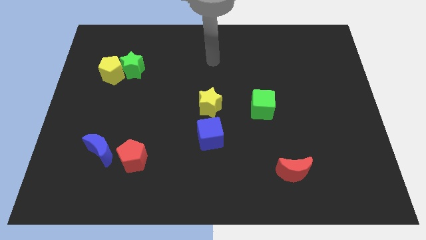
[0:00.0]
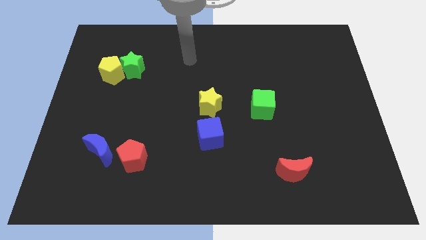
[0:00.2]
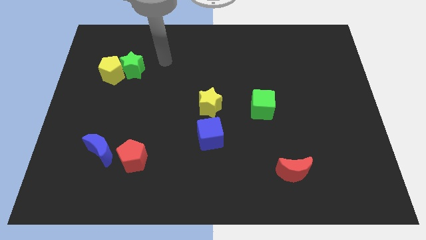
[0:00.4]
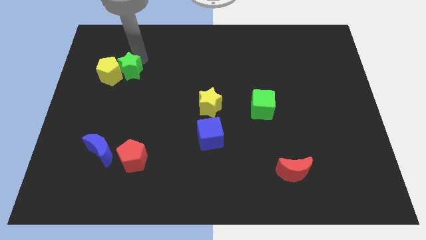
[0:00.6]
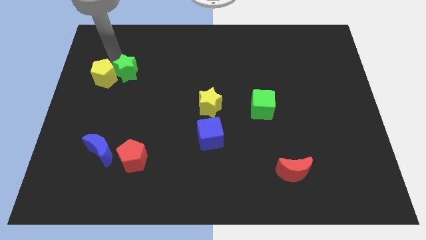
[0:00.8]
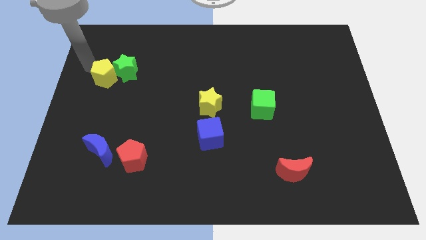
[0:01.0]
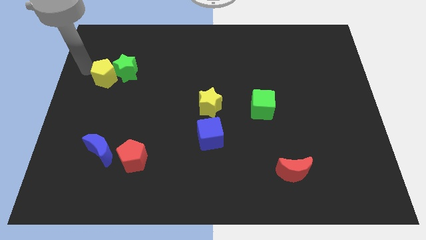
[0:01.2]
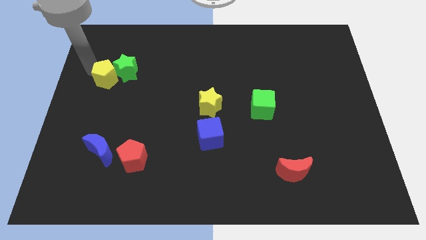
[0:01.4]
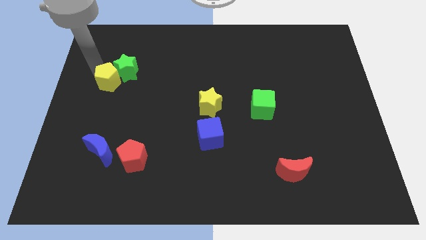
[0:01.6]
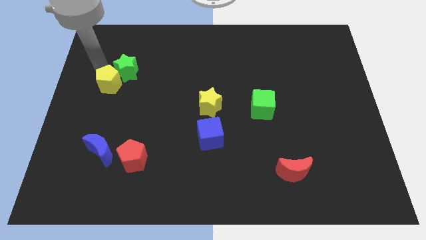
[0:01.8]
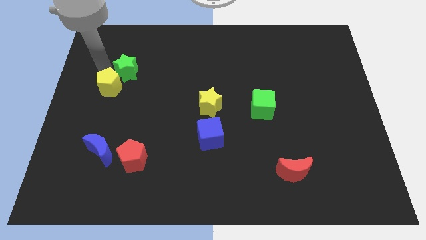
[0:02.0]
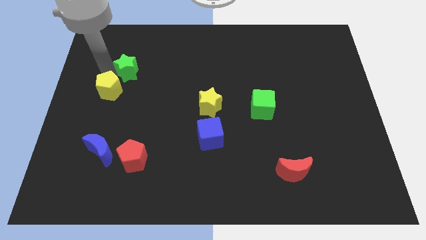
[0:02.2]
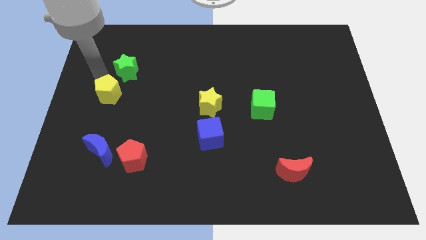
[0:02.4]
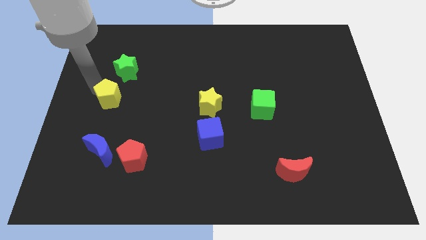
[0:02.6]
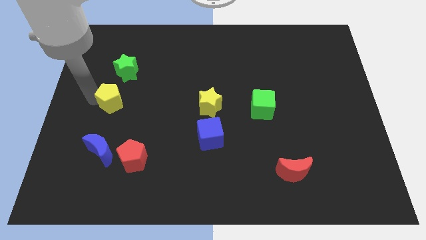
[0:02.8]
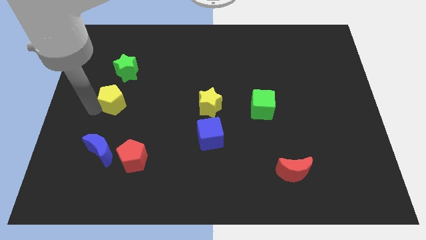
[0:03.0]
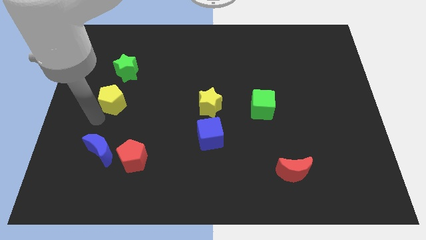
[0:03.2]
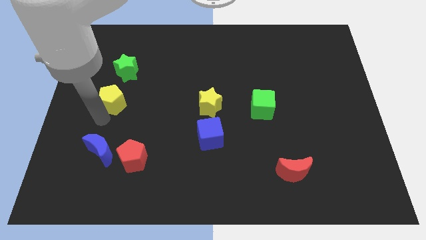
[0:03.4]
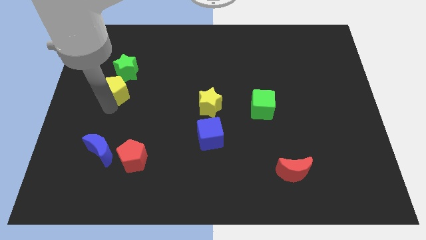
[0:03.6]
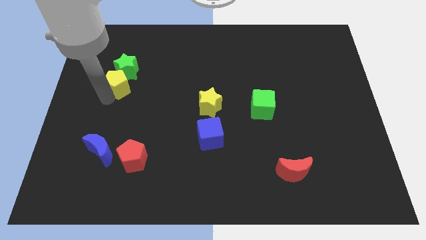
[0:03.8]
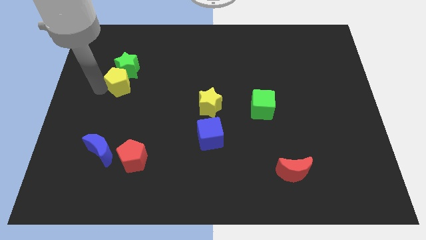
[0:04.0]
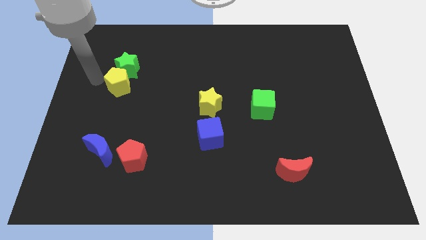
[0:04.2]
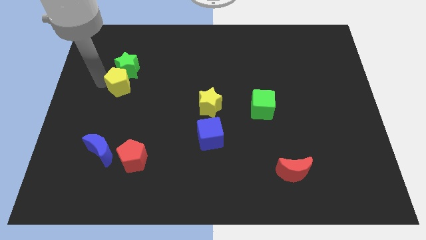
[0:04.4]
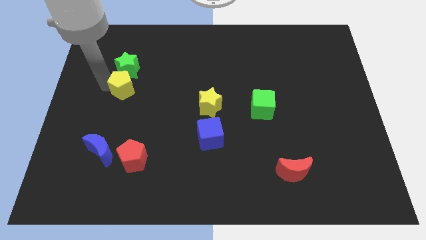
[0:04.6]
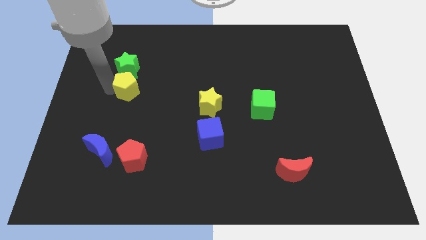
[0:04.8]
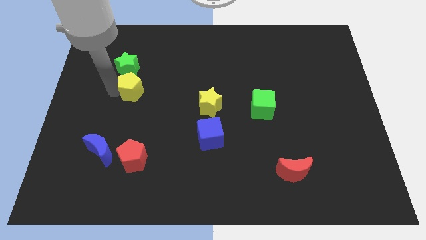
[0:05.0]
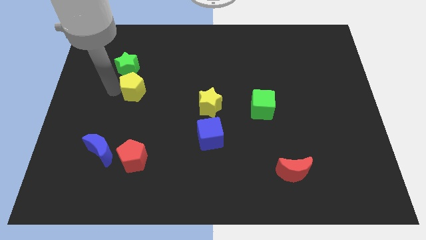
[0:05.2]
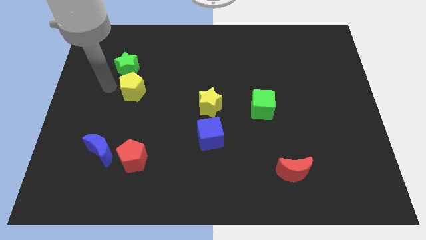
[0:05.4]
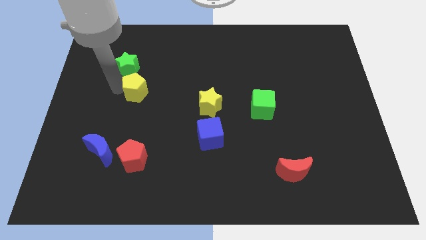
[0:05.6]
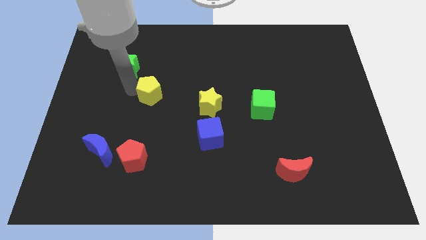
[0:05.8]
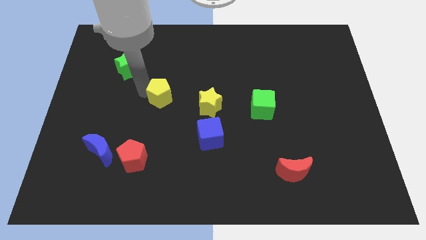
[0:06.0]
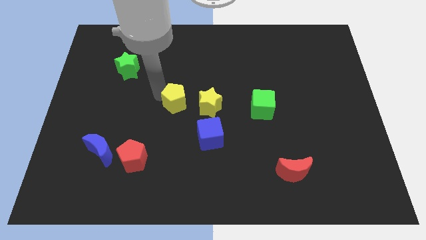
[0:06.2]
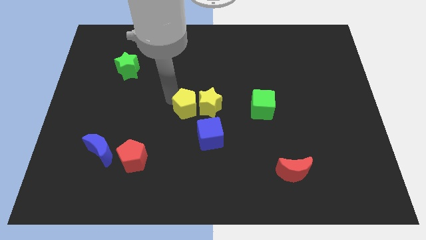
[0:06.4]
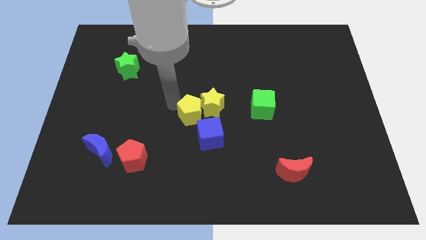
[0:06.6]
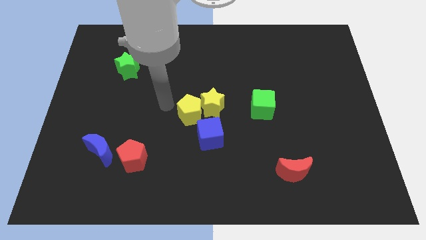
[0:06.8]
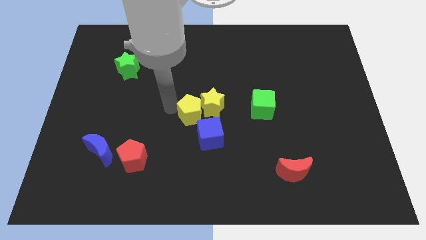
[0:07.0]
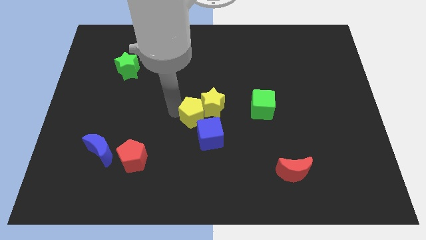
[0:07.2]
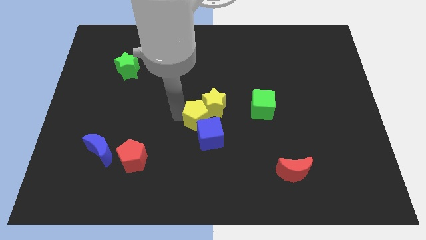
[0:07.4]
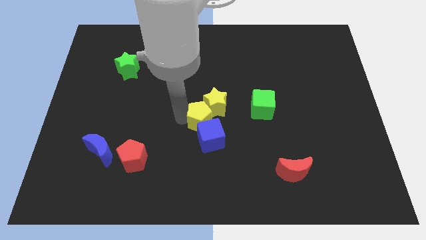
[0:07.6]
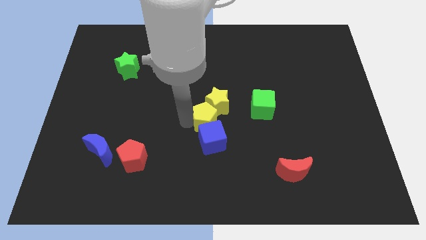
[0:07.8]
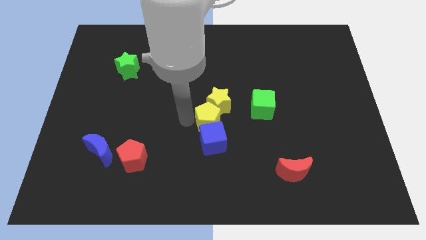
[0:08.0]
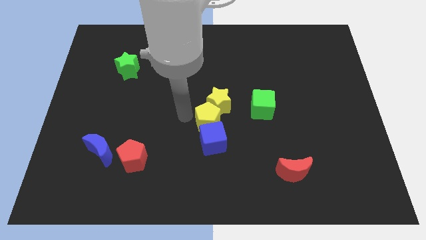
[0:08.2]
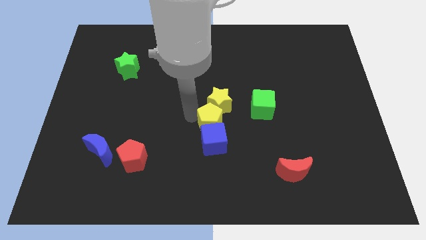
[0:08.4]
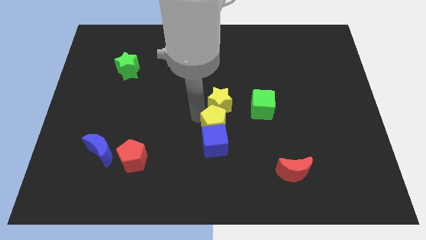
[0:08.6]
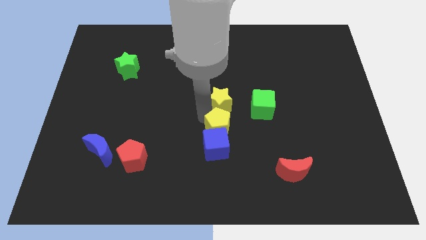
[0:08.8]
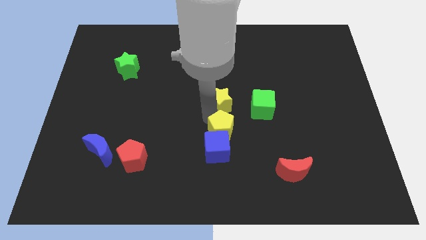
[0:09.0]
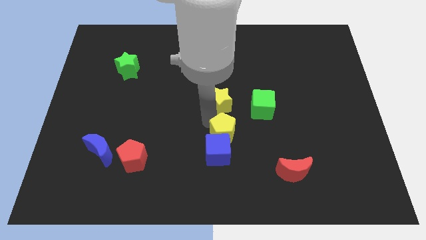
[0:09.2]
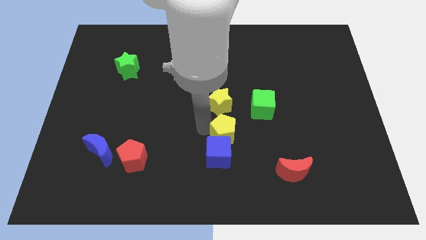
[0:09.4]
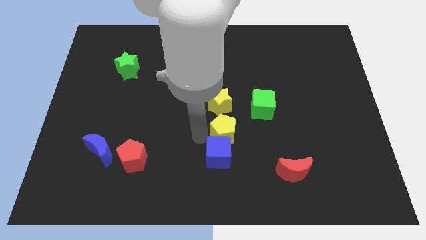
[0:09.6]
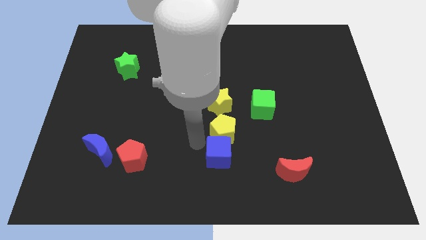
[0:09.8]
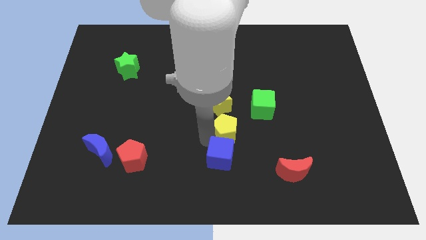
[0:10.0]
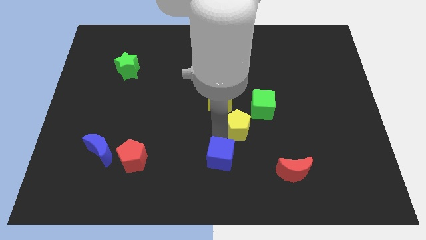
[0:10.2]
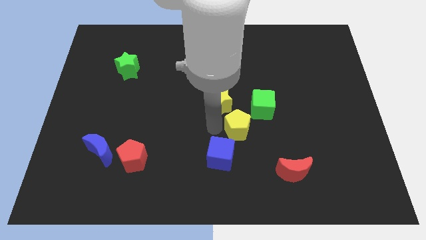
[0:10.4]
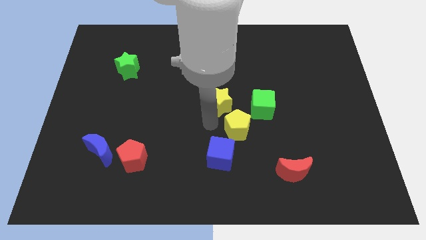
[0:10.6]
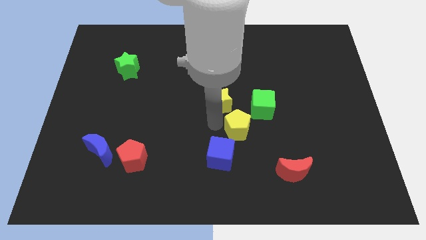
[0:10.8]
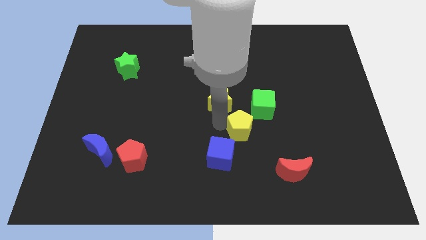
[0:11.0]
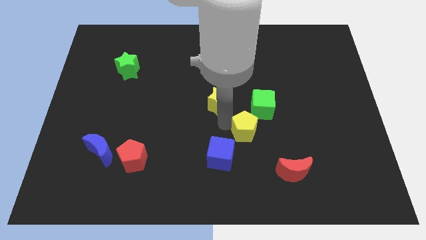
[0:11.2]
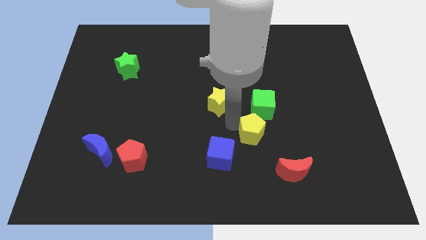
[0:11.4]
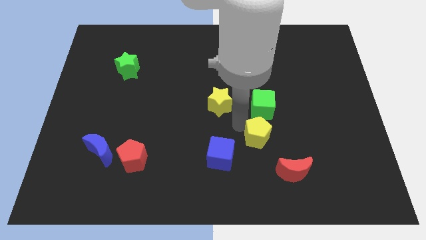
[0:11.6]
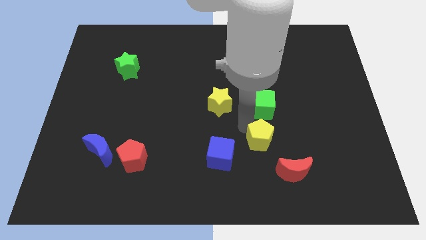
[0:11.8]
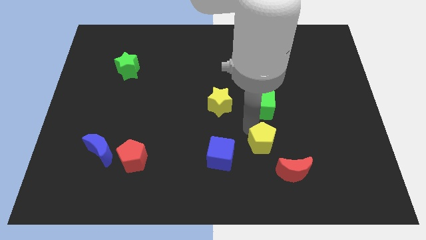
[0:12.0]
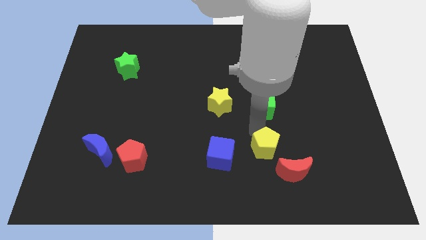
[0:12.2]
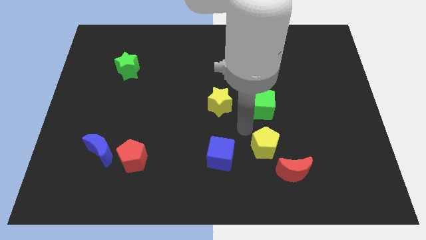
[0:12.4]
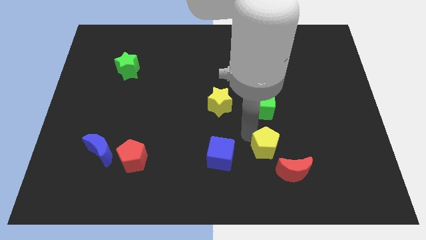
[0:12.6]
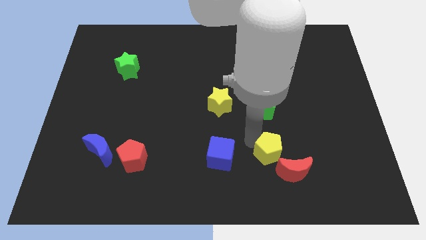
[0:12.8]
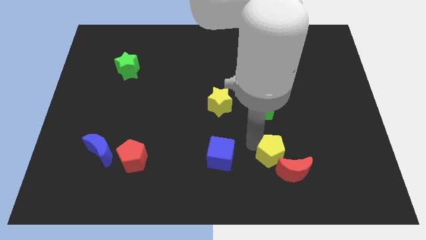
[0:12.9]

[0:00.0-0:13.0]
move the yellow pentagon towards the red moon
